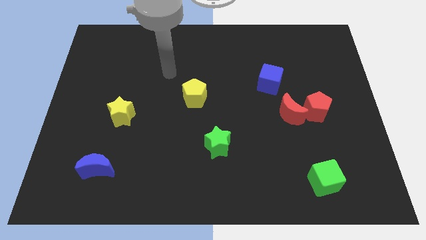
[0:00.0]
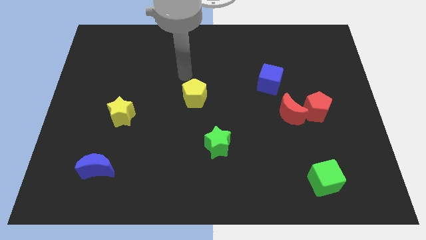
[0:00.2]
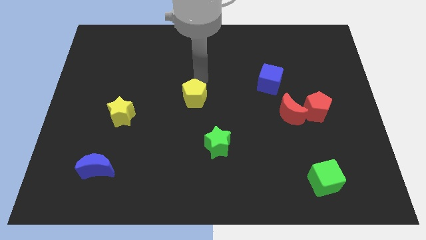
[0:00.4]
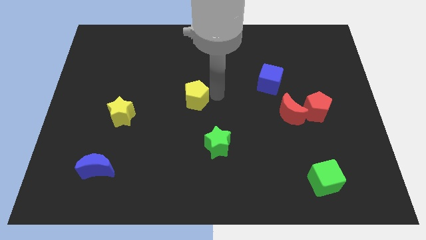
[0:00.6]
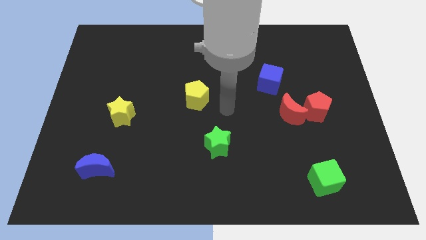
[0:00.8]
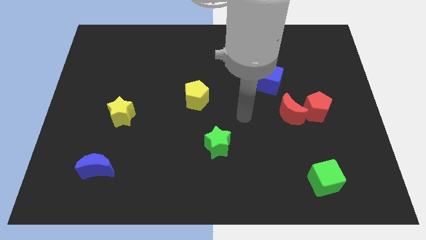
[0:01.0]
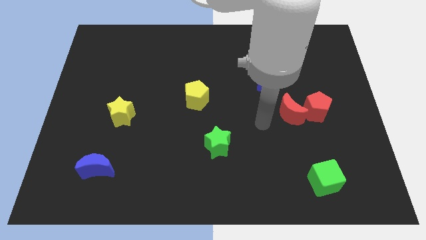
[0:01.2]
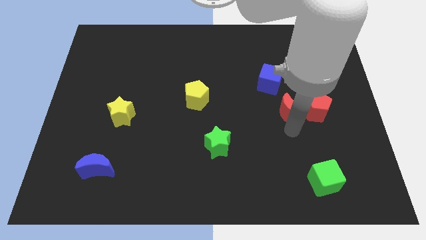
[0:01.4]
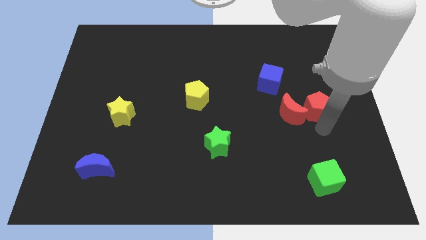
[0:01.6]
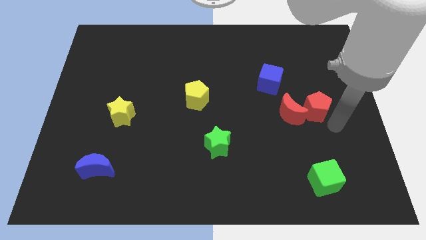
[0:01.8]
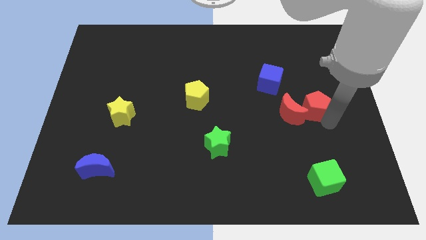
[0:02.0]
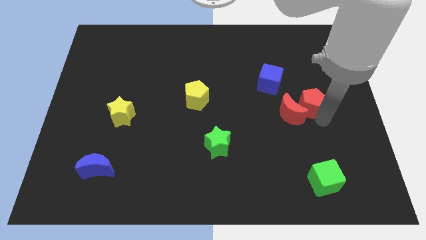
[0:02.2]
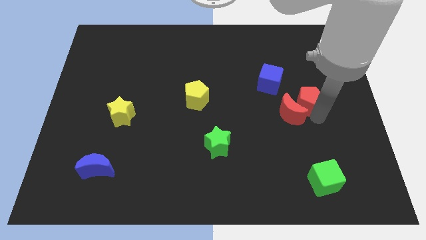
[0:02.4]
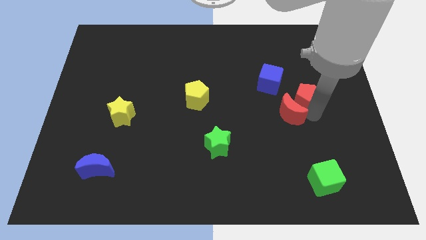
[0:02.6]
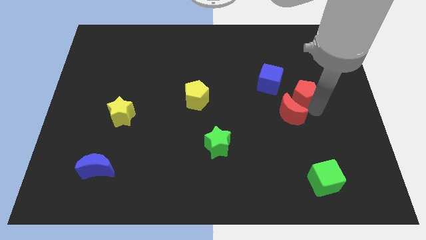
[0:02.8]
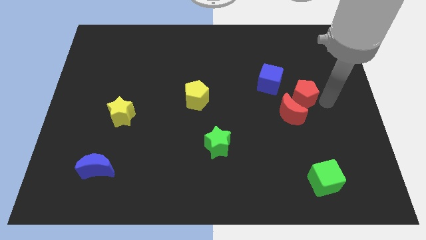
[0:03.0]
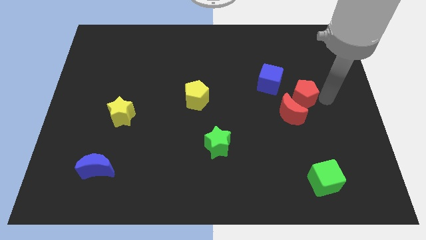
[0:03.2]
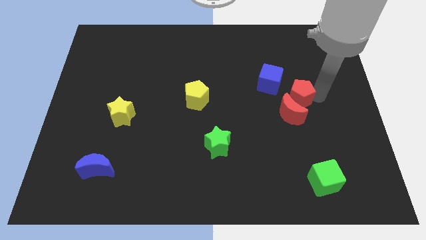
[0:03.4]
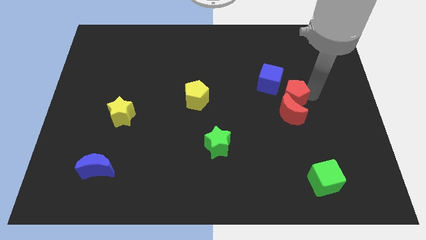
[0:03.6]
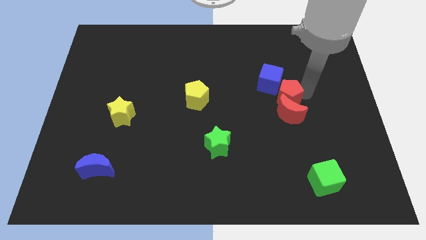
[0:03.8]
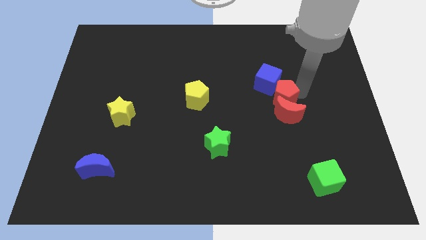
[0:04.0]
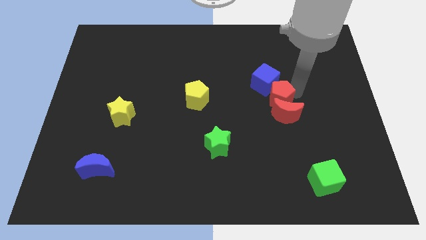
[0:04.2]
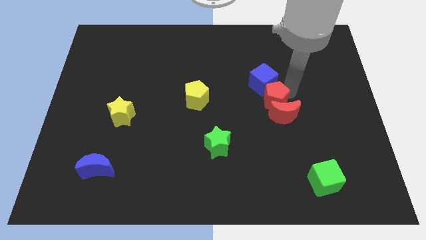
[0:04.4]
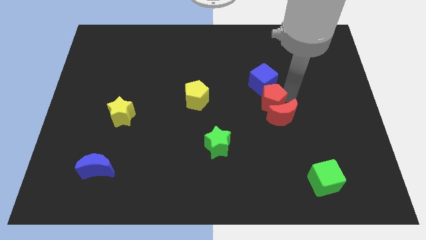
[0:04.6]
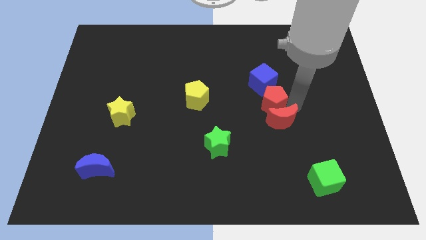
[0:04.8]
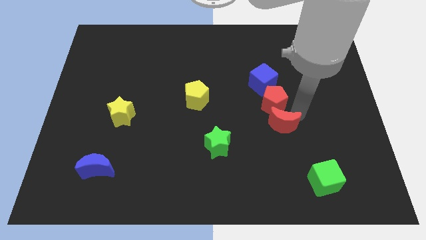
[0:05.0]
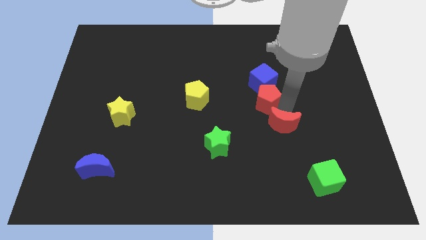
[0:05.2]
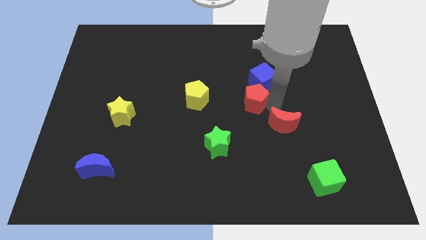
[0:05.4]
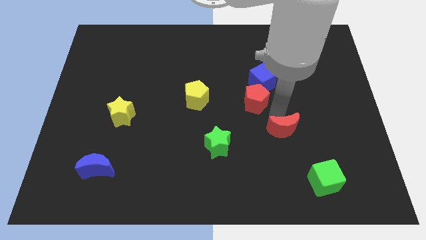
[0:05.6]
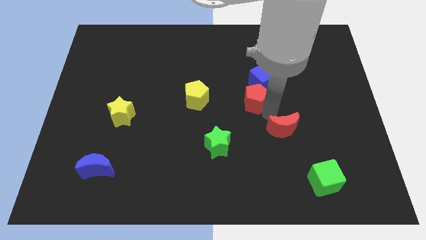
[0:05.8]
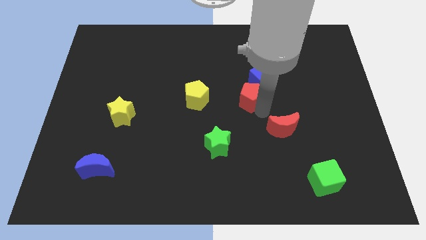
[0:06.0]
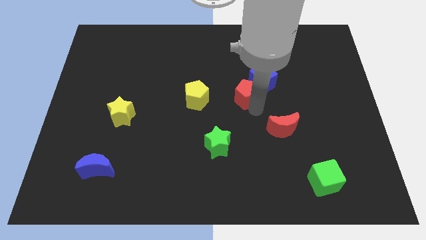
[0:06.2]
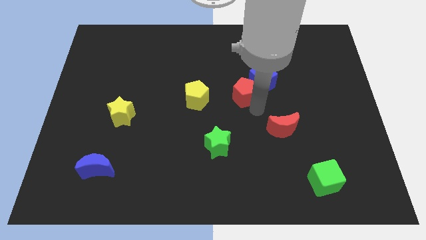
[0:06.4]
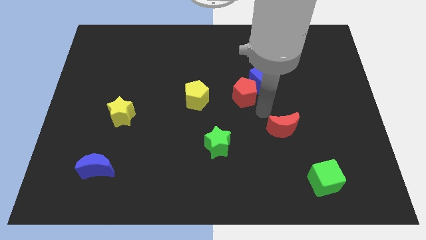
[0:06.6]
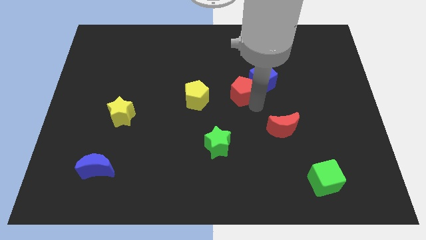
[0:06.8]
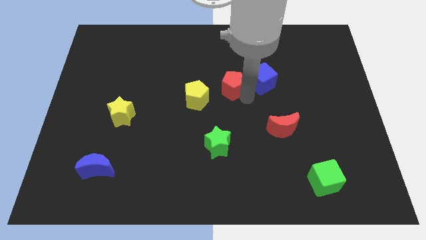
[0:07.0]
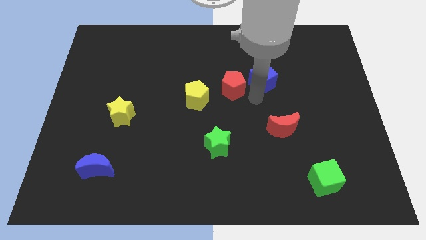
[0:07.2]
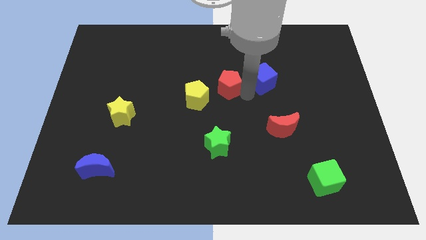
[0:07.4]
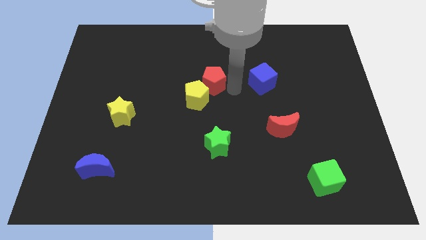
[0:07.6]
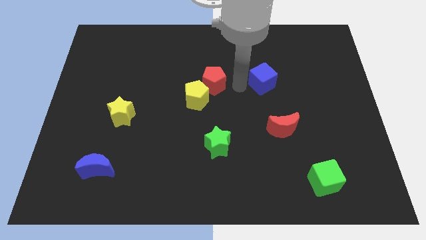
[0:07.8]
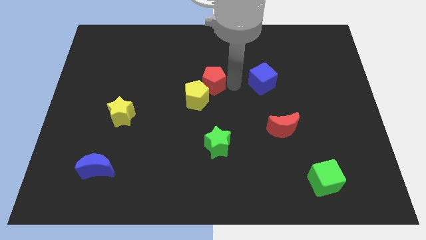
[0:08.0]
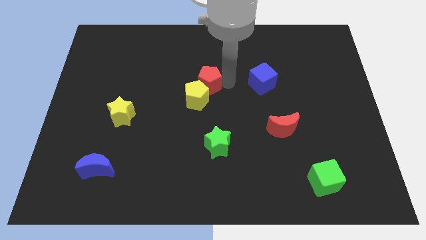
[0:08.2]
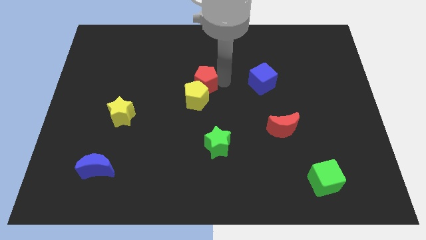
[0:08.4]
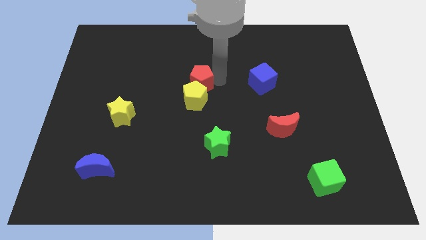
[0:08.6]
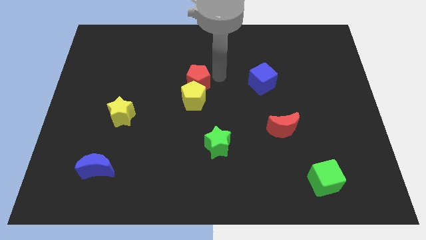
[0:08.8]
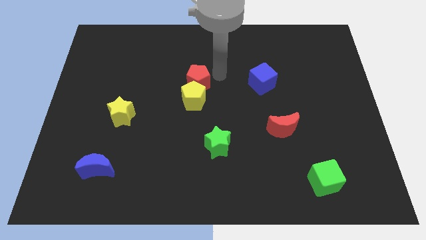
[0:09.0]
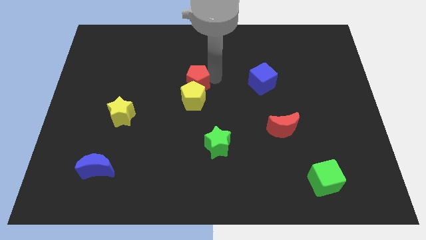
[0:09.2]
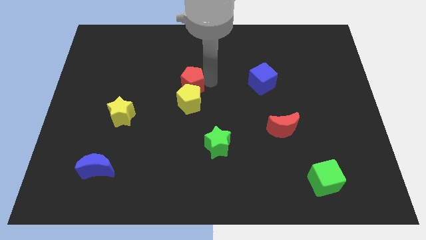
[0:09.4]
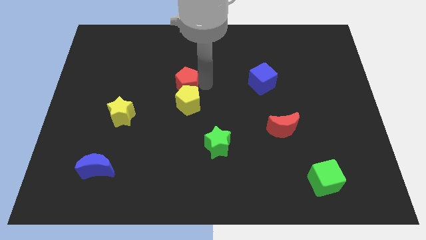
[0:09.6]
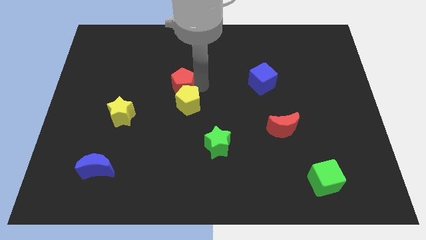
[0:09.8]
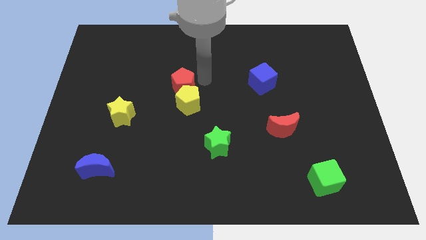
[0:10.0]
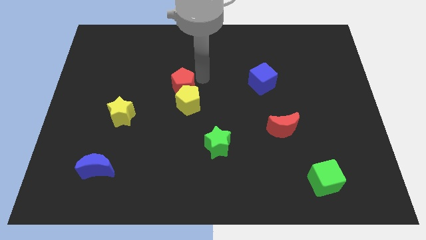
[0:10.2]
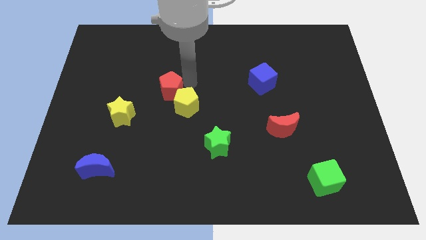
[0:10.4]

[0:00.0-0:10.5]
push the red pentagon left of the yellow pentagon

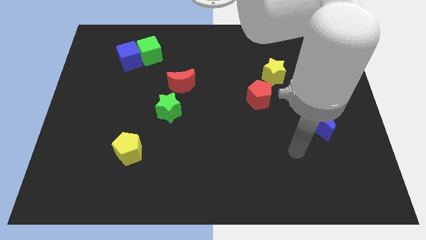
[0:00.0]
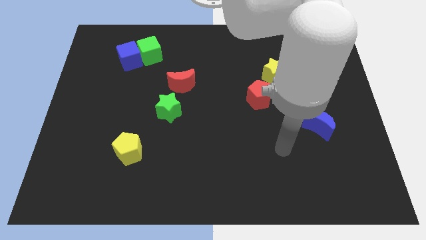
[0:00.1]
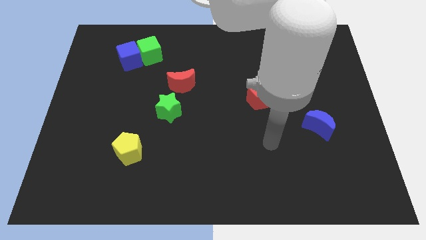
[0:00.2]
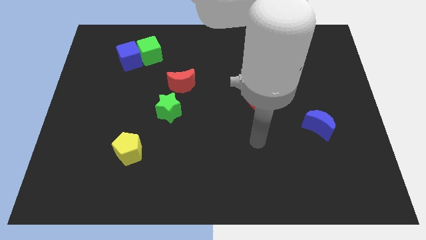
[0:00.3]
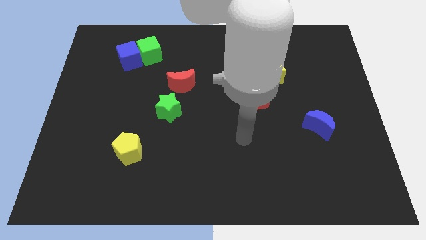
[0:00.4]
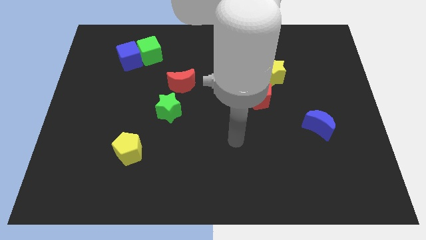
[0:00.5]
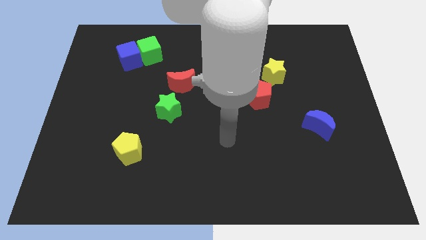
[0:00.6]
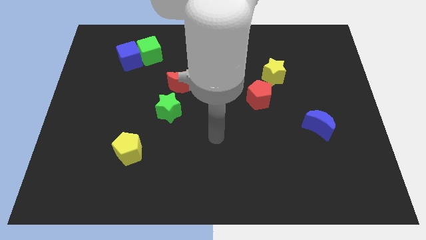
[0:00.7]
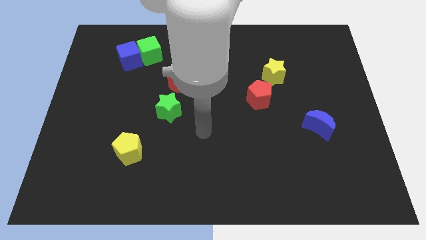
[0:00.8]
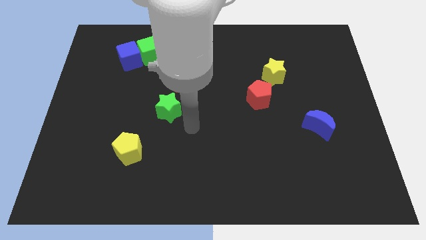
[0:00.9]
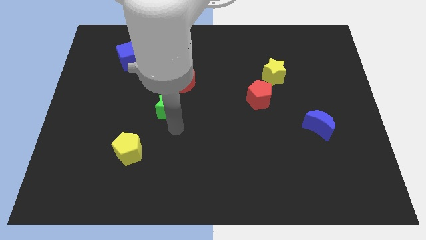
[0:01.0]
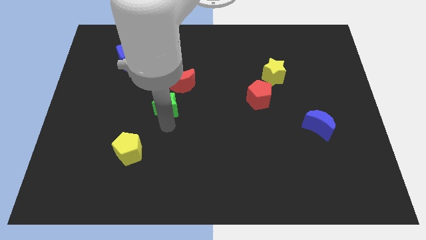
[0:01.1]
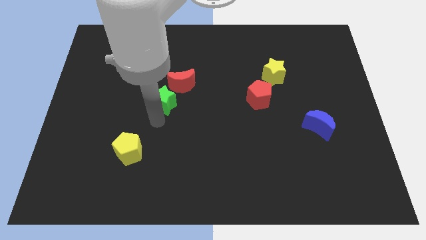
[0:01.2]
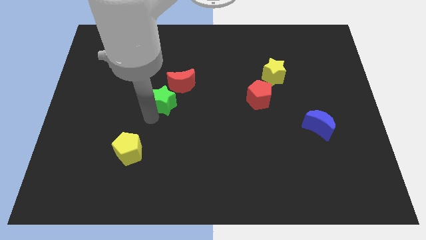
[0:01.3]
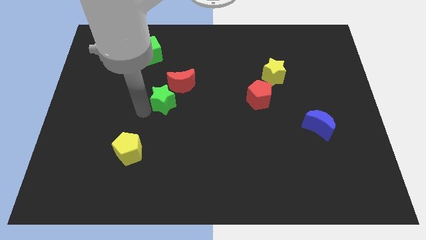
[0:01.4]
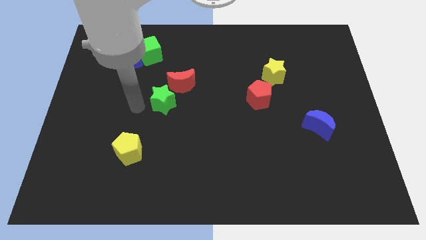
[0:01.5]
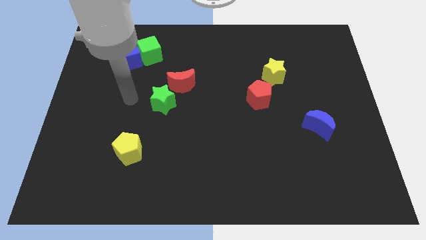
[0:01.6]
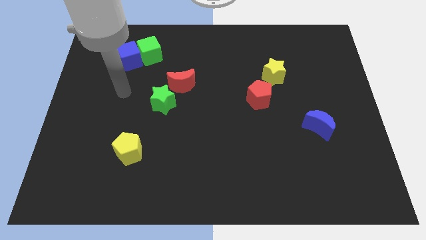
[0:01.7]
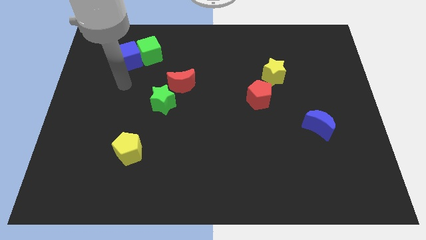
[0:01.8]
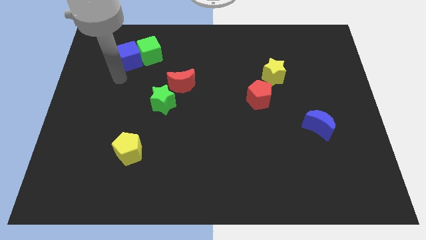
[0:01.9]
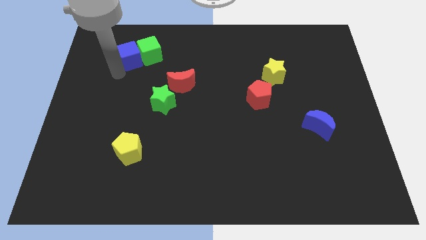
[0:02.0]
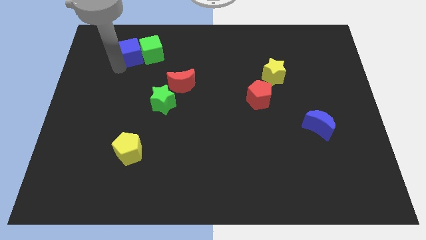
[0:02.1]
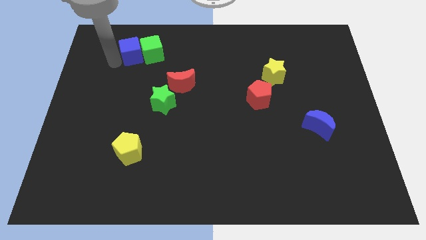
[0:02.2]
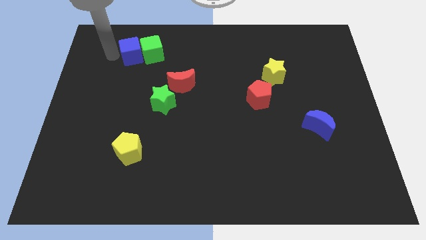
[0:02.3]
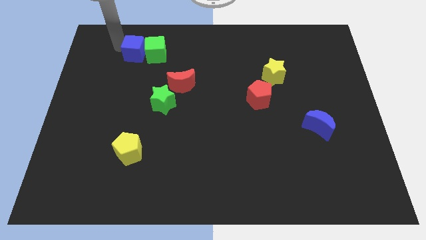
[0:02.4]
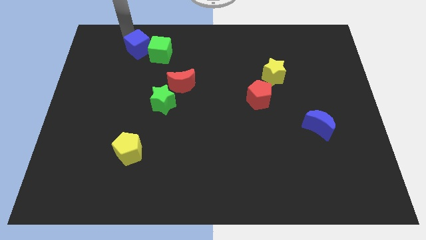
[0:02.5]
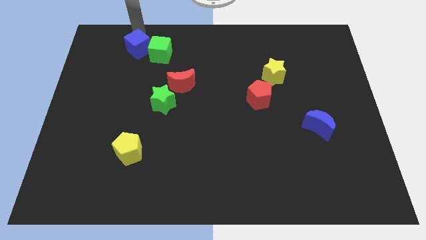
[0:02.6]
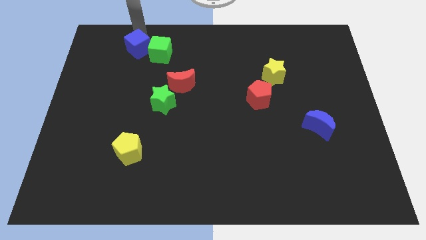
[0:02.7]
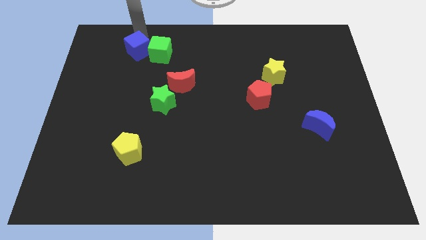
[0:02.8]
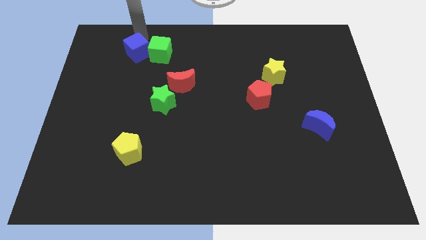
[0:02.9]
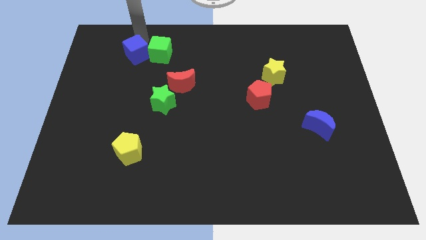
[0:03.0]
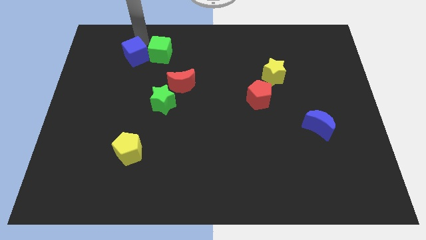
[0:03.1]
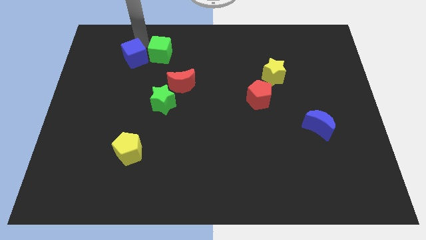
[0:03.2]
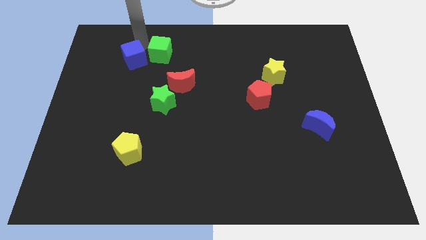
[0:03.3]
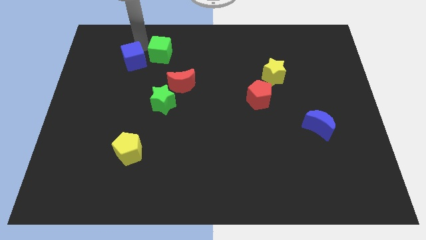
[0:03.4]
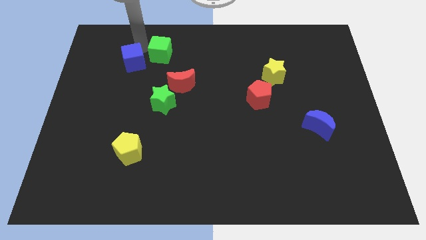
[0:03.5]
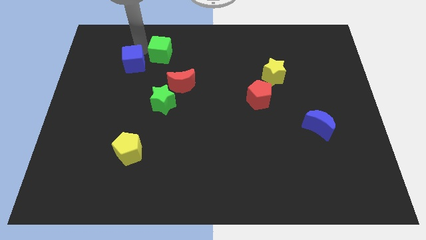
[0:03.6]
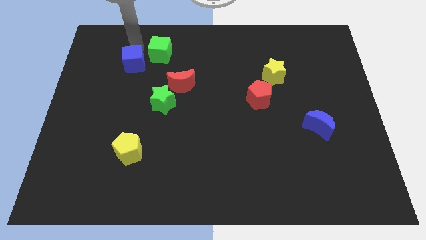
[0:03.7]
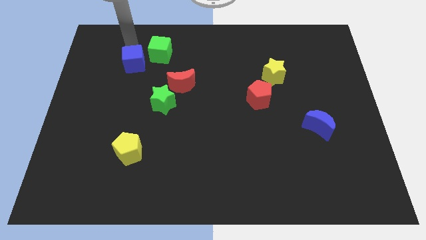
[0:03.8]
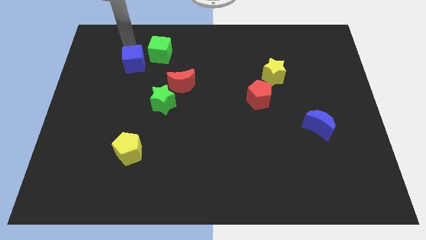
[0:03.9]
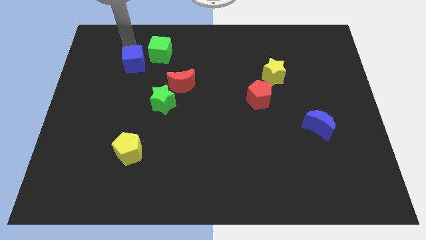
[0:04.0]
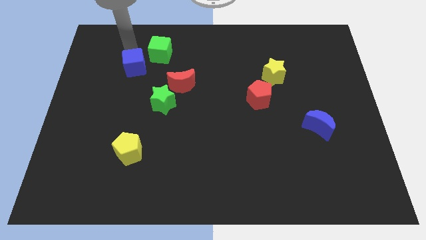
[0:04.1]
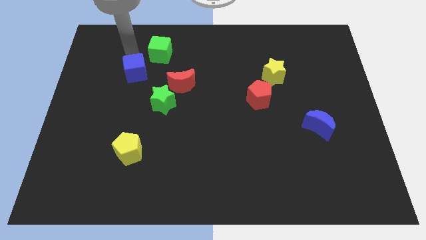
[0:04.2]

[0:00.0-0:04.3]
slide the blue cube diagonally up and to the left of the green star
